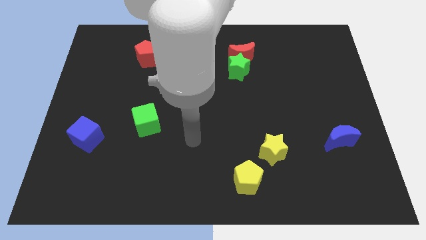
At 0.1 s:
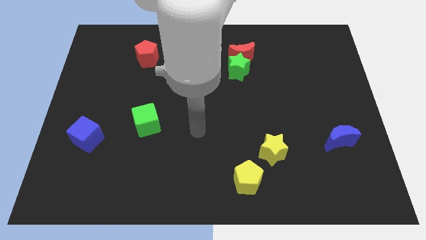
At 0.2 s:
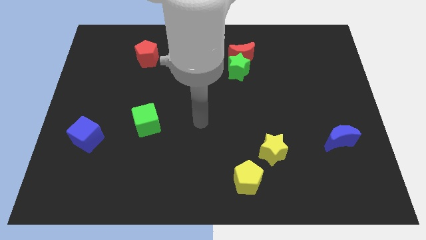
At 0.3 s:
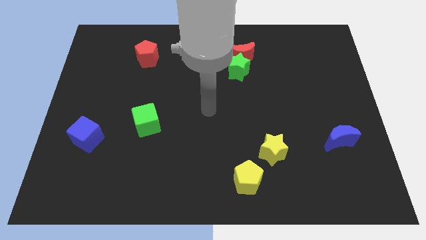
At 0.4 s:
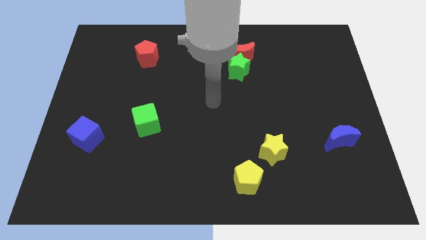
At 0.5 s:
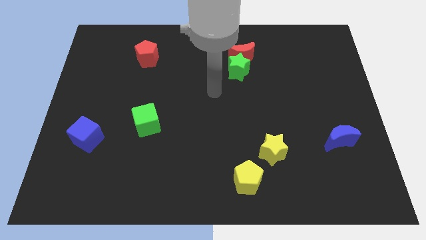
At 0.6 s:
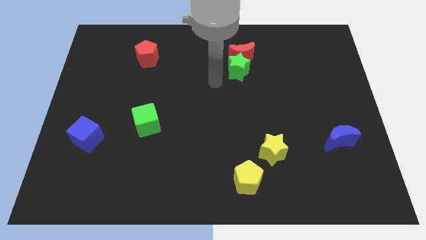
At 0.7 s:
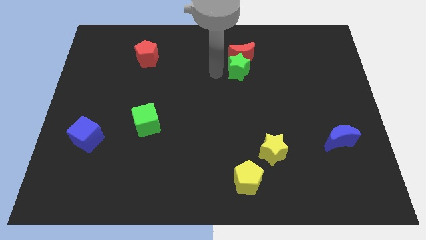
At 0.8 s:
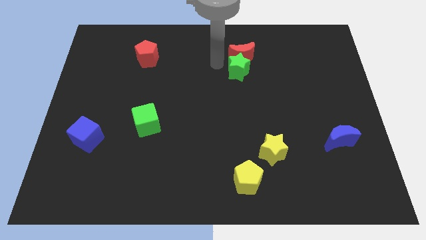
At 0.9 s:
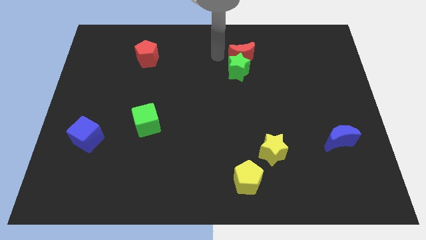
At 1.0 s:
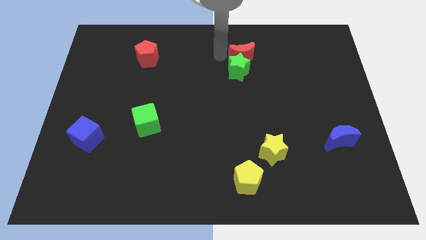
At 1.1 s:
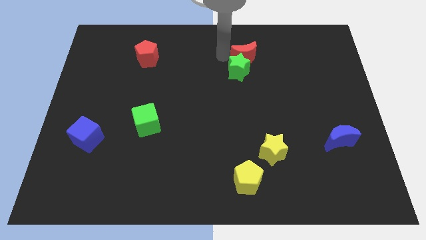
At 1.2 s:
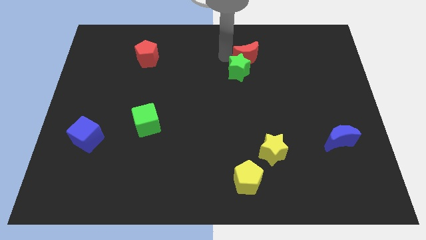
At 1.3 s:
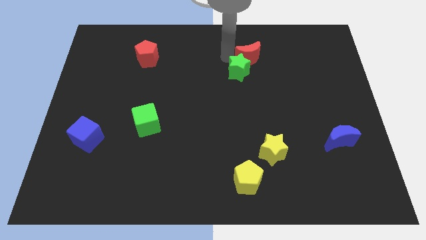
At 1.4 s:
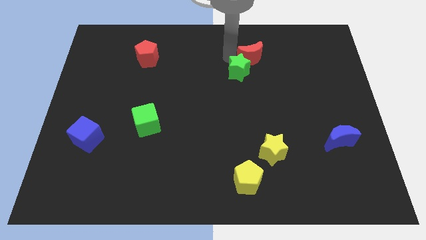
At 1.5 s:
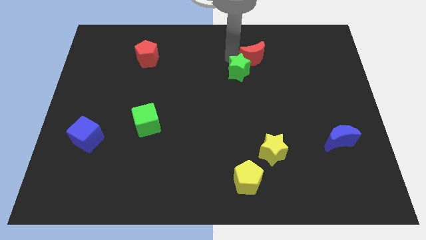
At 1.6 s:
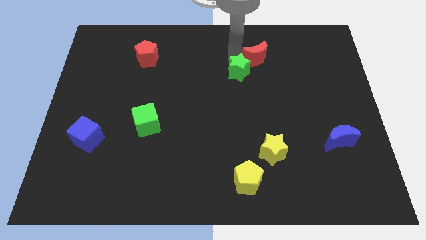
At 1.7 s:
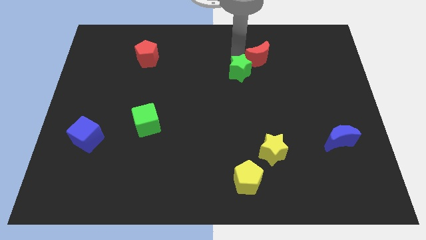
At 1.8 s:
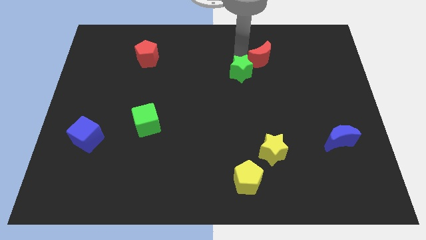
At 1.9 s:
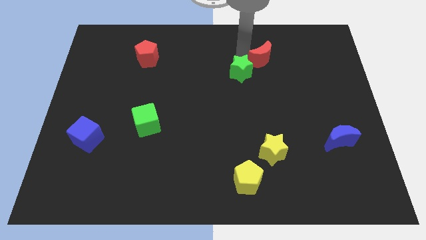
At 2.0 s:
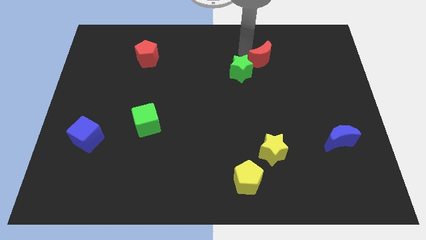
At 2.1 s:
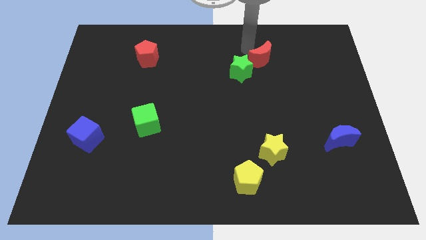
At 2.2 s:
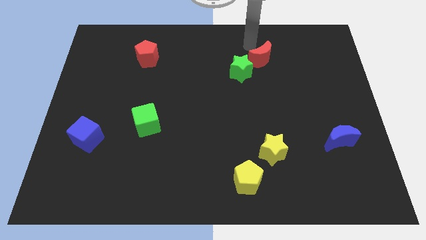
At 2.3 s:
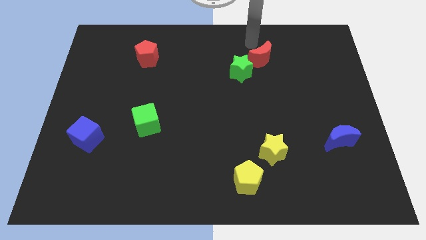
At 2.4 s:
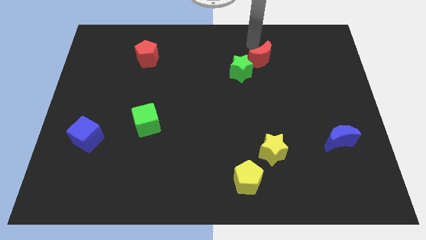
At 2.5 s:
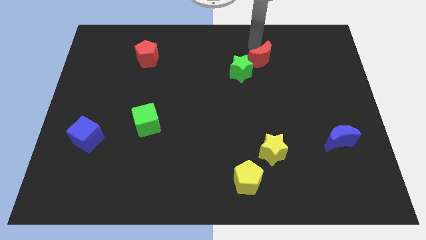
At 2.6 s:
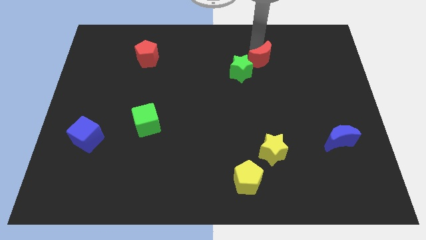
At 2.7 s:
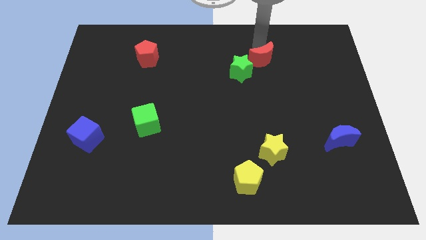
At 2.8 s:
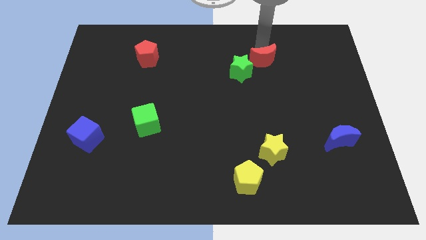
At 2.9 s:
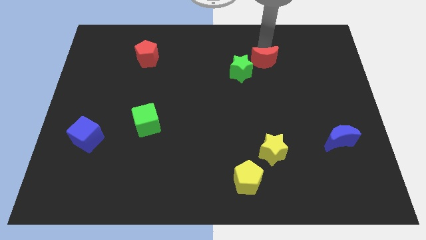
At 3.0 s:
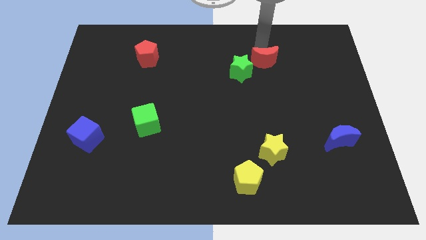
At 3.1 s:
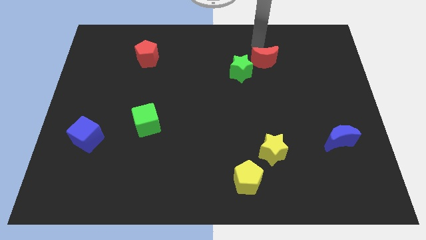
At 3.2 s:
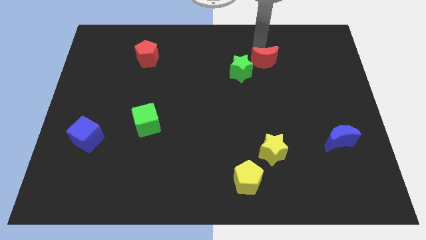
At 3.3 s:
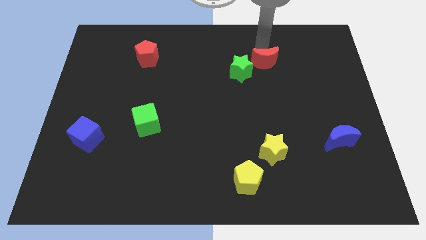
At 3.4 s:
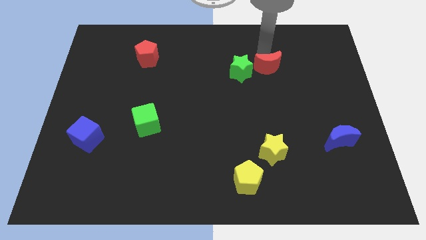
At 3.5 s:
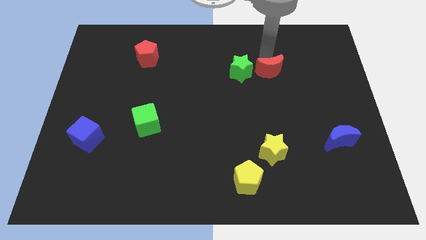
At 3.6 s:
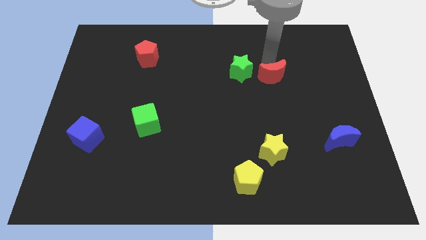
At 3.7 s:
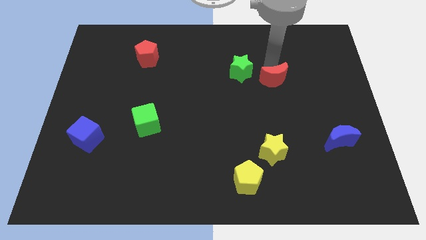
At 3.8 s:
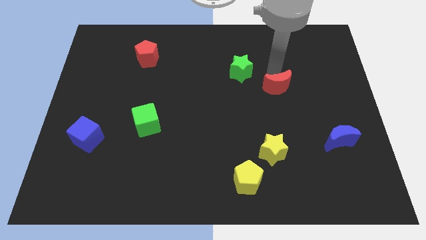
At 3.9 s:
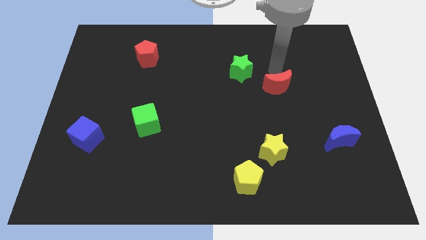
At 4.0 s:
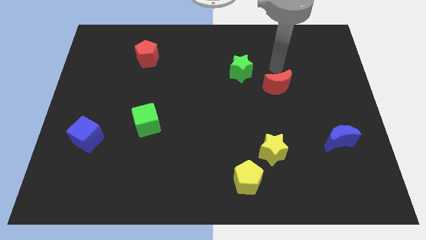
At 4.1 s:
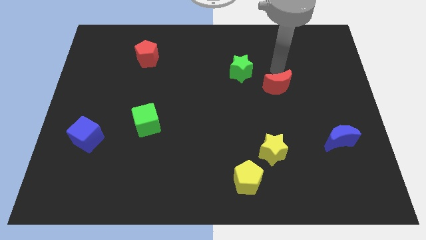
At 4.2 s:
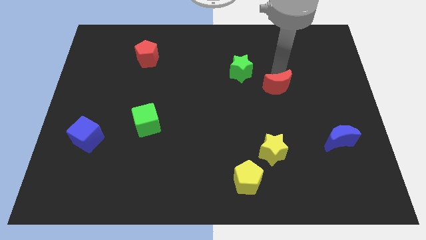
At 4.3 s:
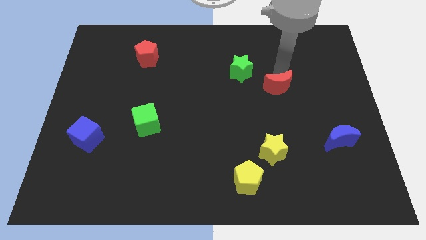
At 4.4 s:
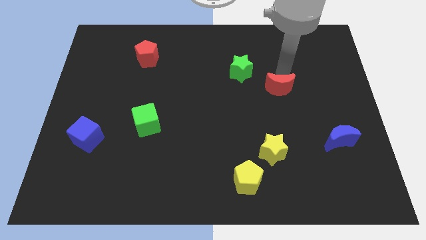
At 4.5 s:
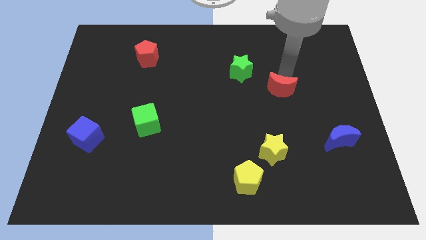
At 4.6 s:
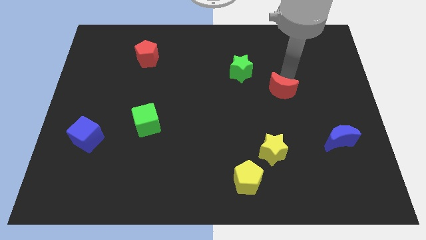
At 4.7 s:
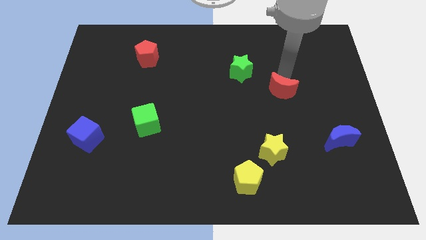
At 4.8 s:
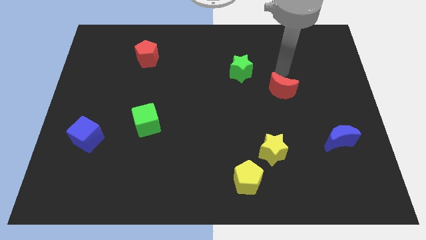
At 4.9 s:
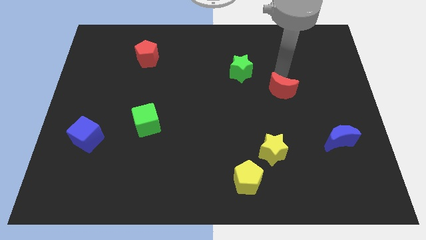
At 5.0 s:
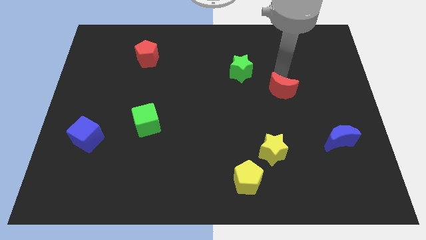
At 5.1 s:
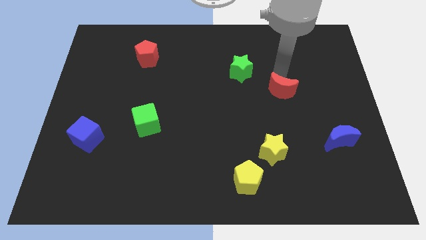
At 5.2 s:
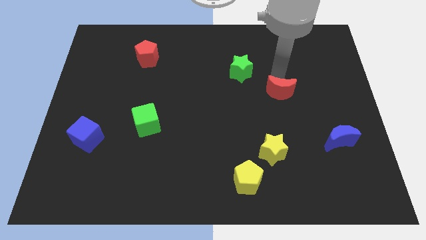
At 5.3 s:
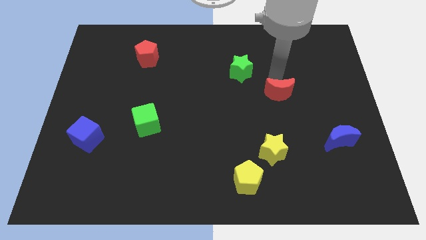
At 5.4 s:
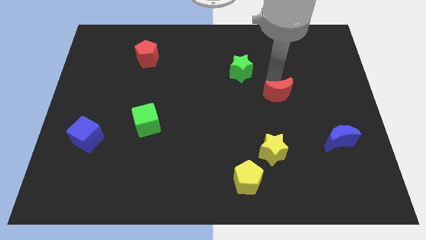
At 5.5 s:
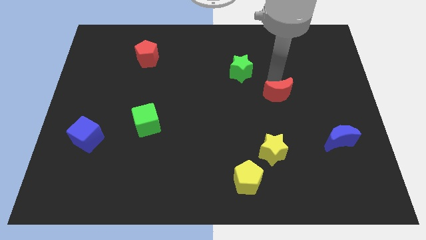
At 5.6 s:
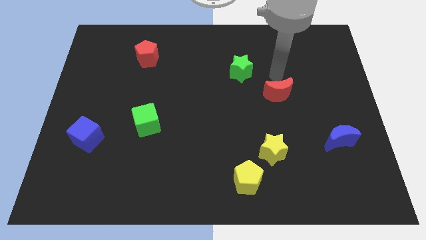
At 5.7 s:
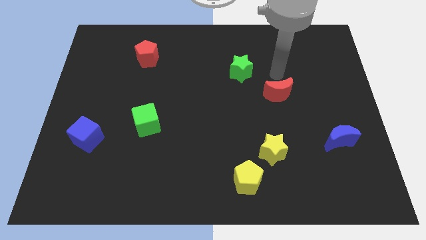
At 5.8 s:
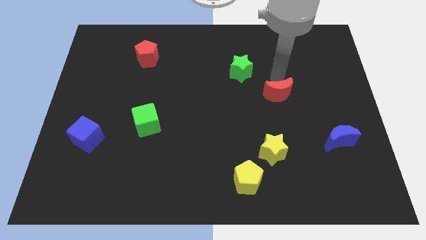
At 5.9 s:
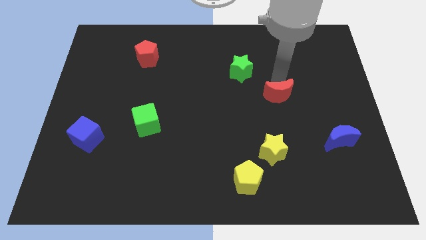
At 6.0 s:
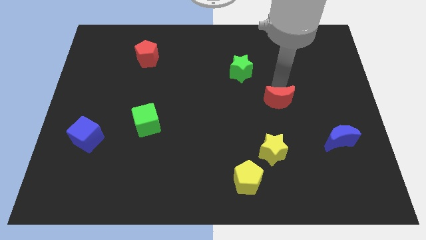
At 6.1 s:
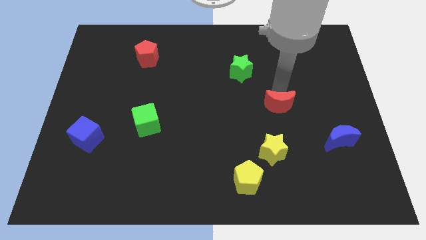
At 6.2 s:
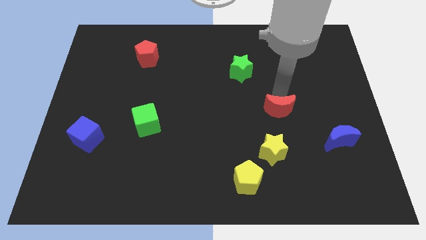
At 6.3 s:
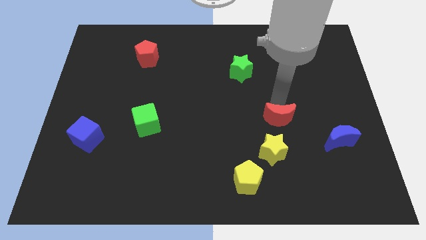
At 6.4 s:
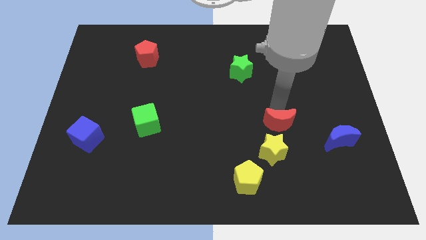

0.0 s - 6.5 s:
put the red moon to the left of the blue moon

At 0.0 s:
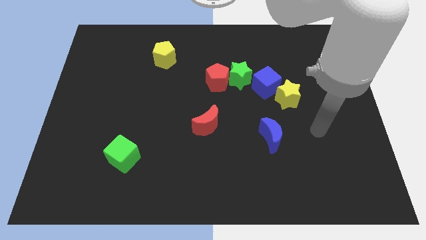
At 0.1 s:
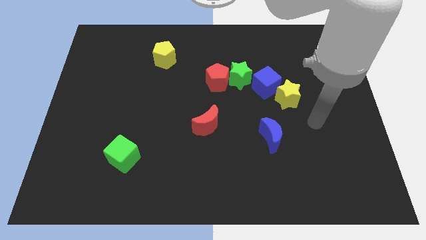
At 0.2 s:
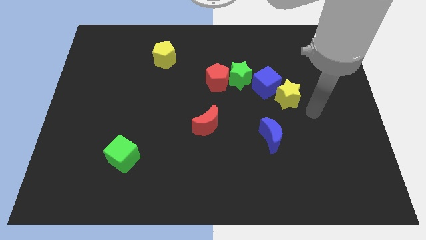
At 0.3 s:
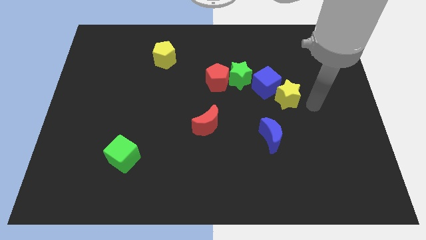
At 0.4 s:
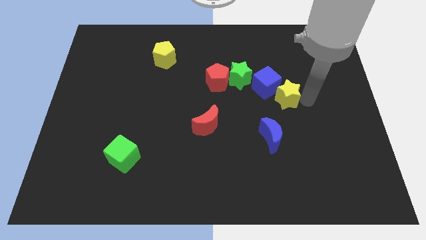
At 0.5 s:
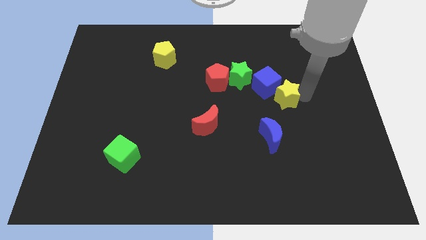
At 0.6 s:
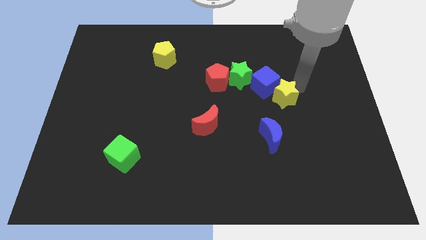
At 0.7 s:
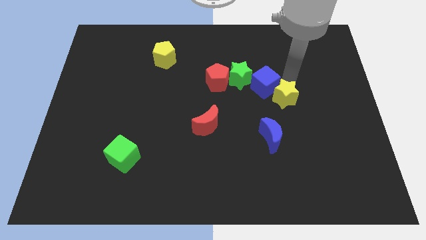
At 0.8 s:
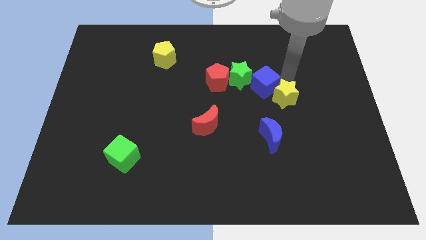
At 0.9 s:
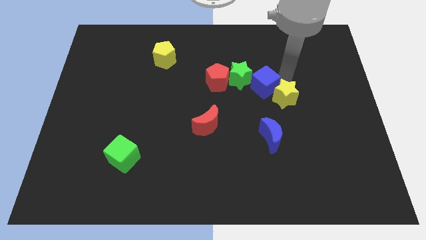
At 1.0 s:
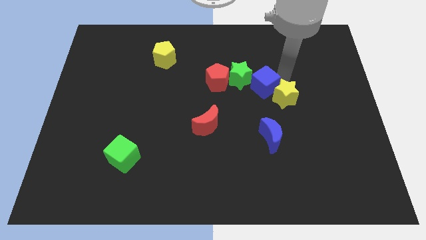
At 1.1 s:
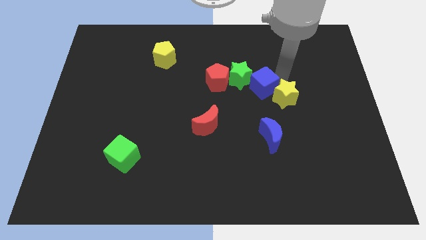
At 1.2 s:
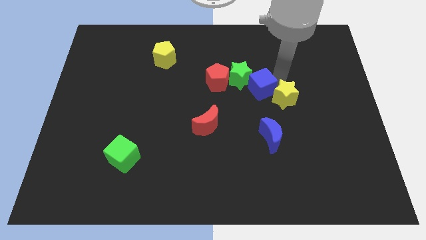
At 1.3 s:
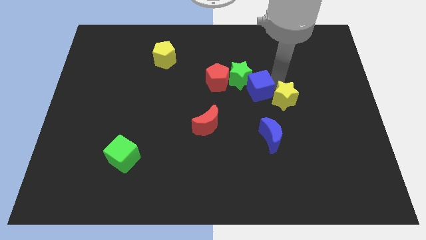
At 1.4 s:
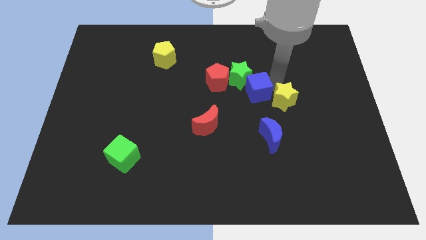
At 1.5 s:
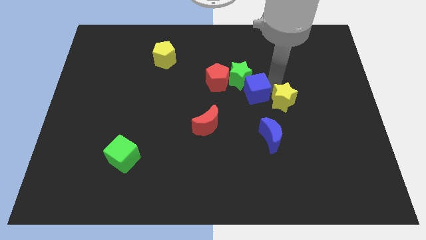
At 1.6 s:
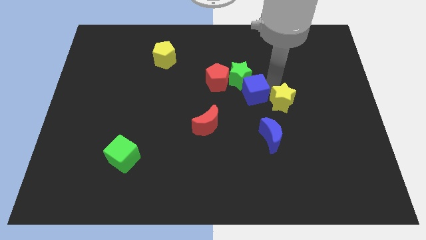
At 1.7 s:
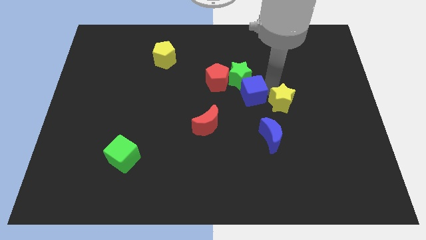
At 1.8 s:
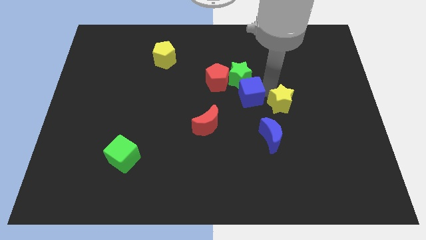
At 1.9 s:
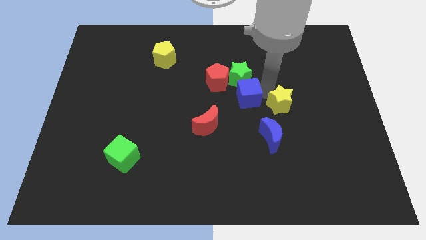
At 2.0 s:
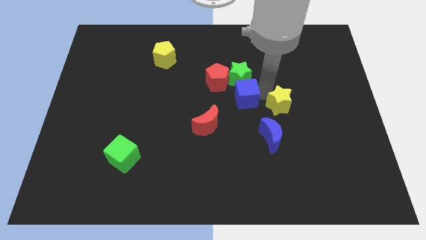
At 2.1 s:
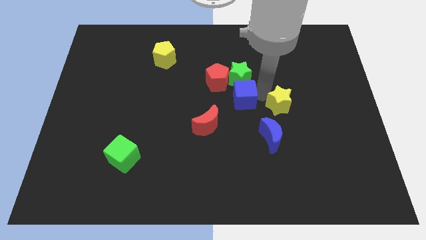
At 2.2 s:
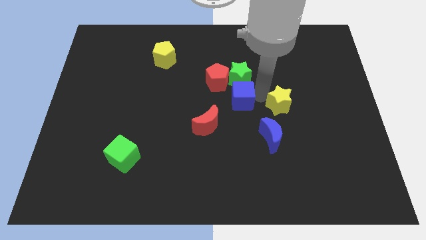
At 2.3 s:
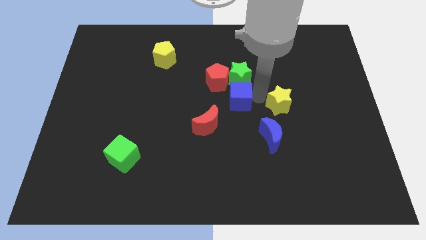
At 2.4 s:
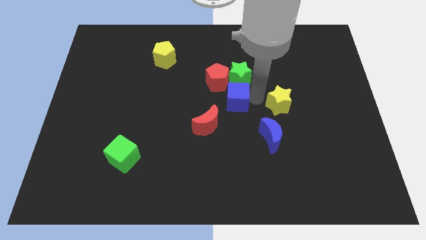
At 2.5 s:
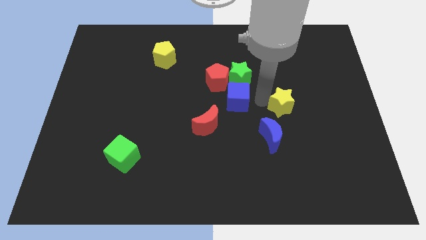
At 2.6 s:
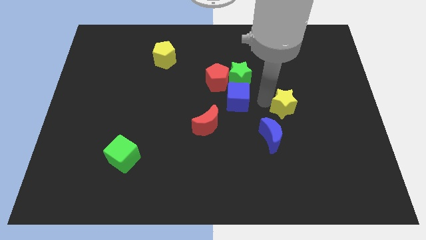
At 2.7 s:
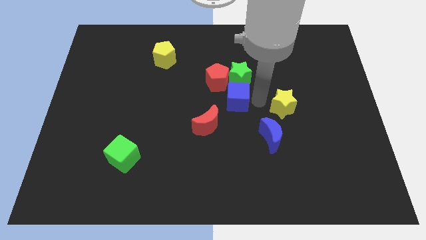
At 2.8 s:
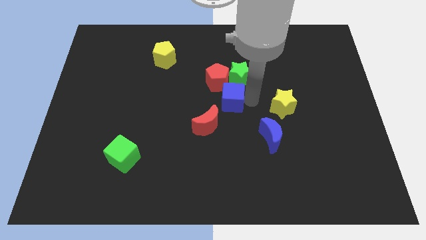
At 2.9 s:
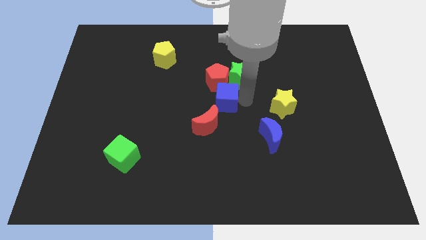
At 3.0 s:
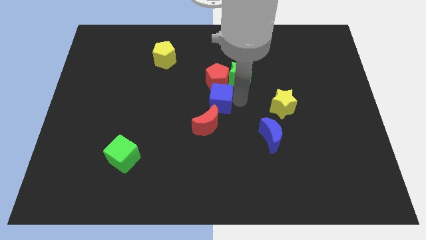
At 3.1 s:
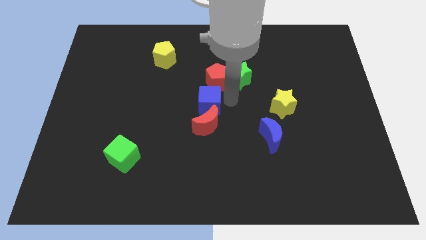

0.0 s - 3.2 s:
move the blue cube diagonally up and to the left of the red moon
